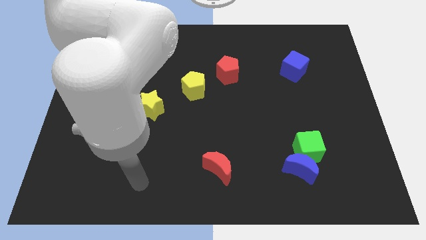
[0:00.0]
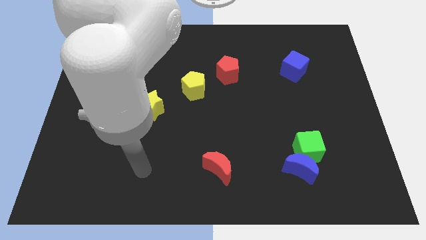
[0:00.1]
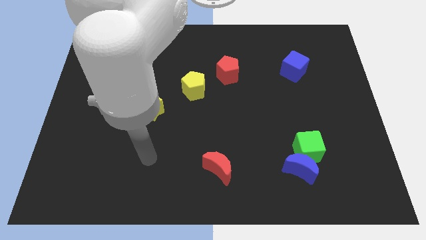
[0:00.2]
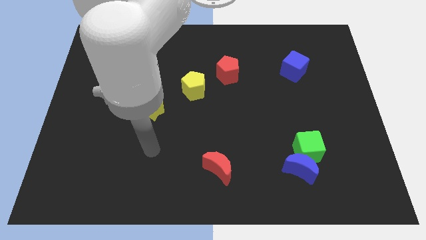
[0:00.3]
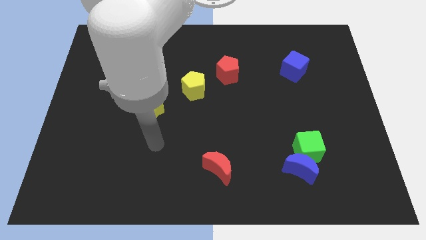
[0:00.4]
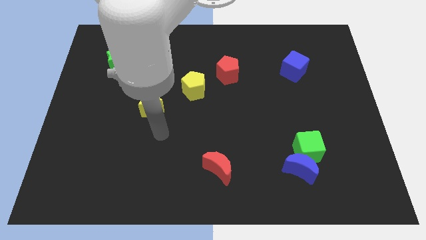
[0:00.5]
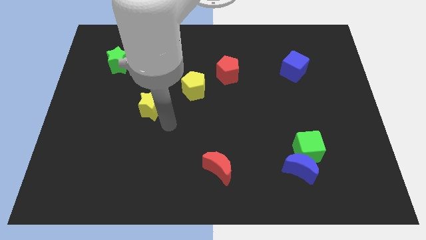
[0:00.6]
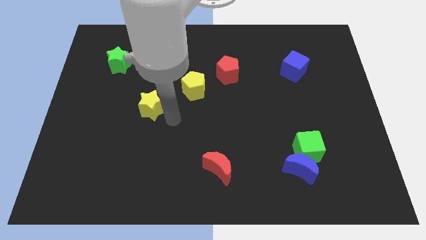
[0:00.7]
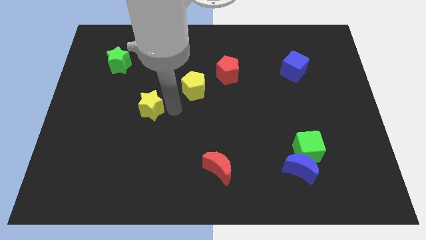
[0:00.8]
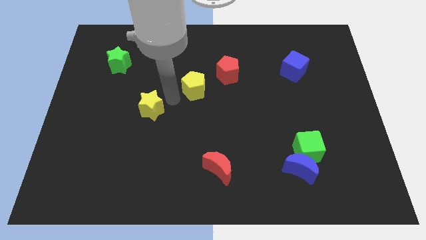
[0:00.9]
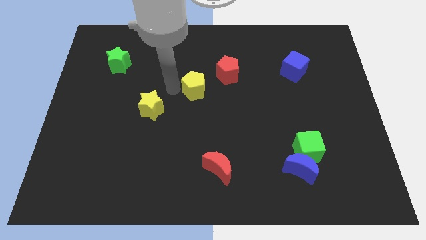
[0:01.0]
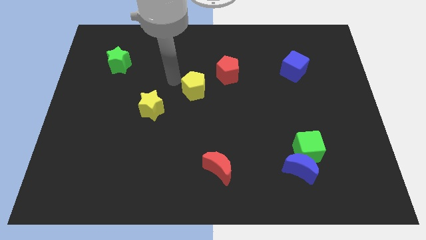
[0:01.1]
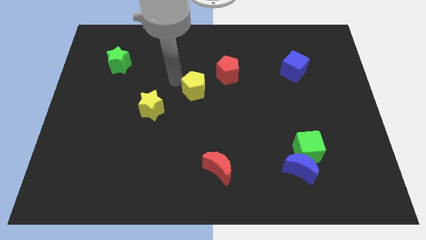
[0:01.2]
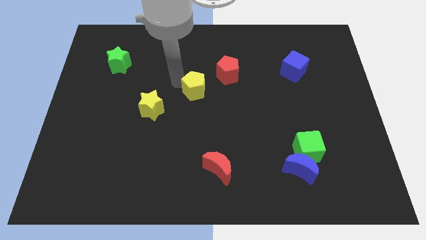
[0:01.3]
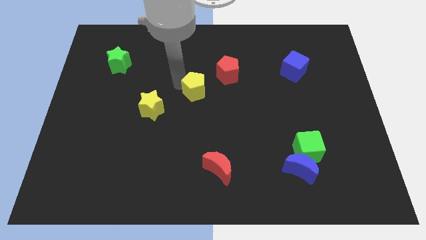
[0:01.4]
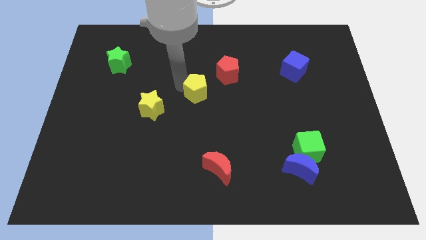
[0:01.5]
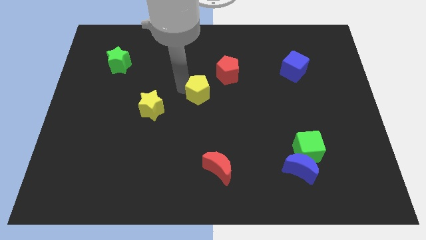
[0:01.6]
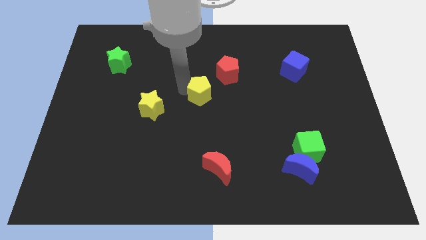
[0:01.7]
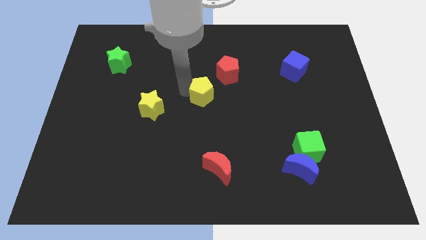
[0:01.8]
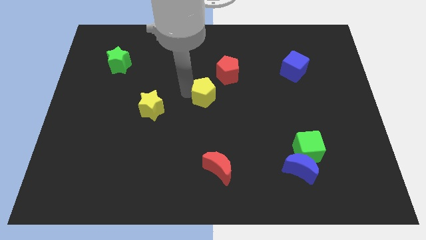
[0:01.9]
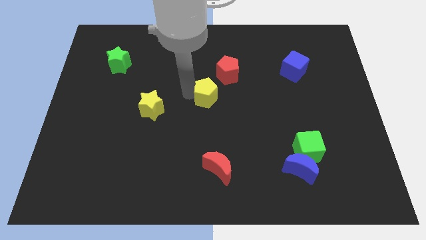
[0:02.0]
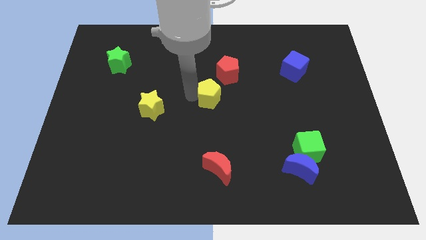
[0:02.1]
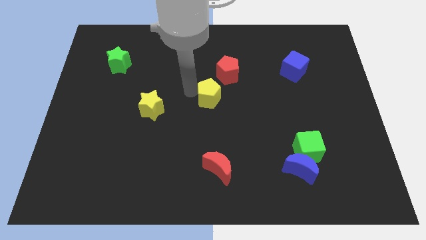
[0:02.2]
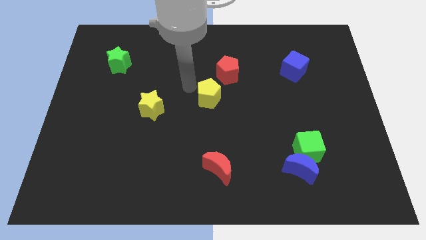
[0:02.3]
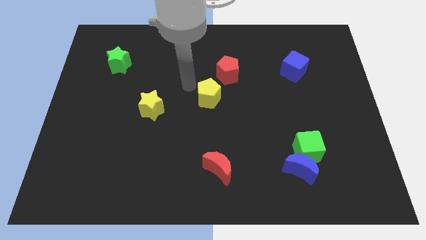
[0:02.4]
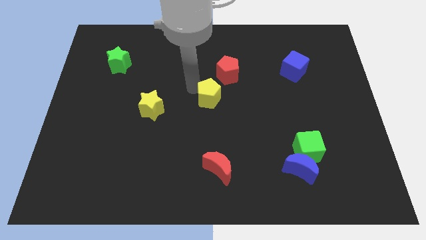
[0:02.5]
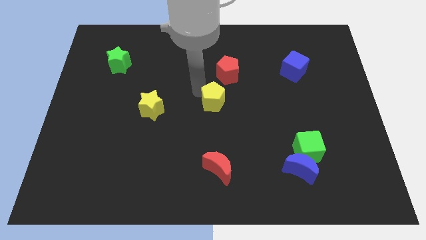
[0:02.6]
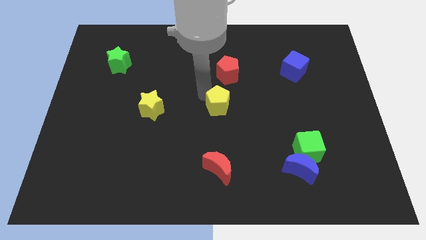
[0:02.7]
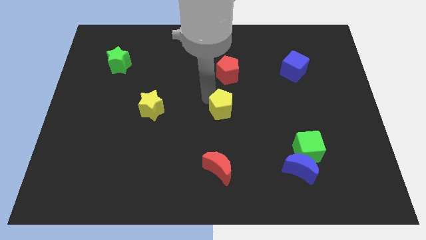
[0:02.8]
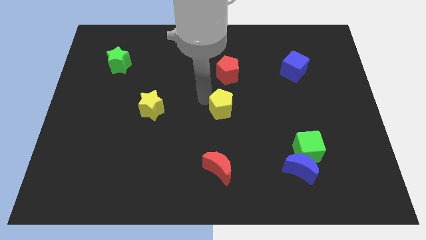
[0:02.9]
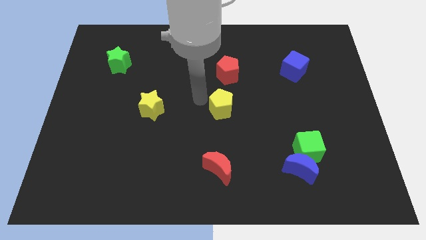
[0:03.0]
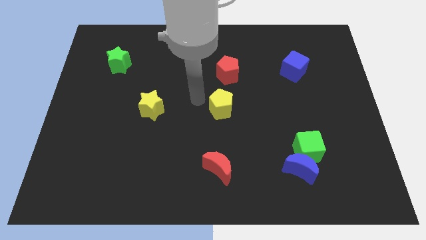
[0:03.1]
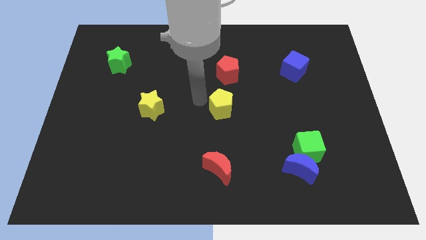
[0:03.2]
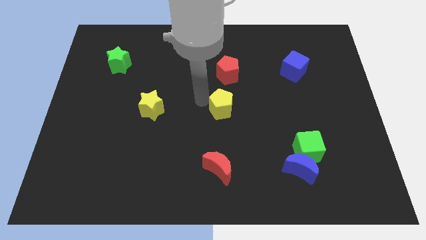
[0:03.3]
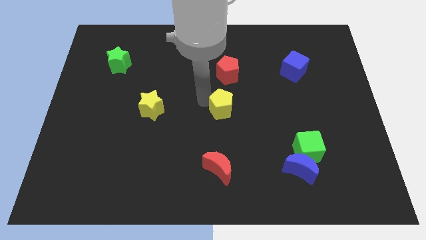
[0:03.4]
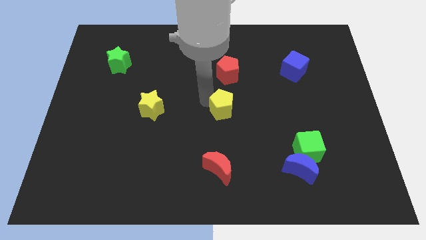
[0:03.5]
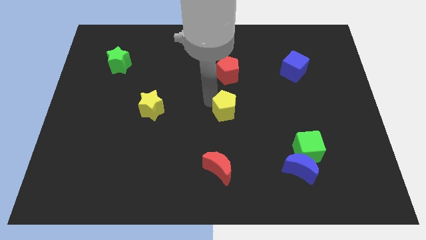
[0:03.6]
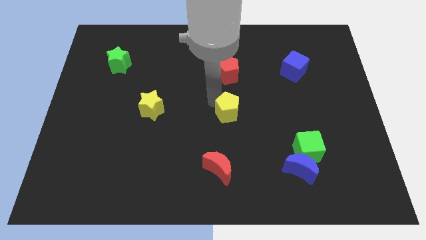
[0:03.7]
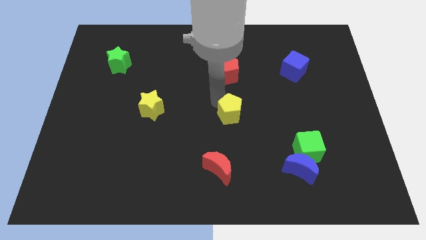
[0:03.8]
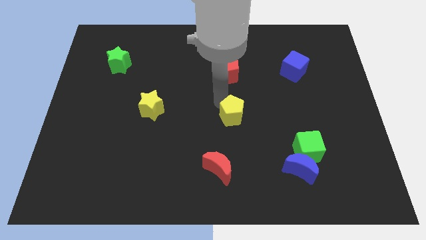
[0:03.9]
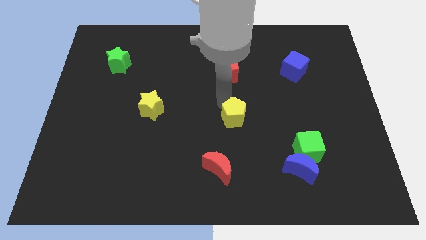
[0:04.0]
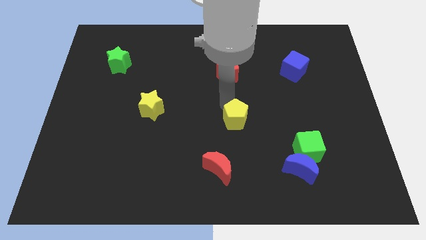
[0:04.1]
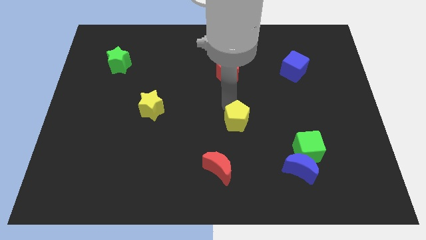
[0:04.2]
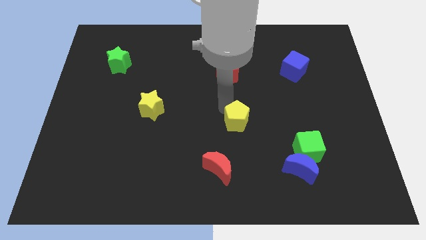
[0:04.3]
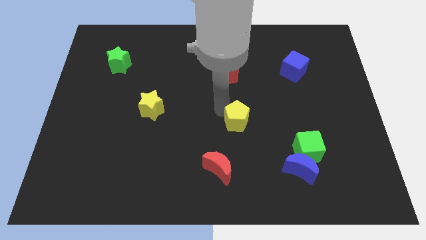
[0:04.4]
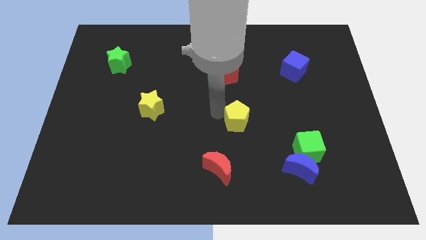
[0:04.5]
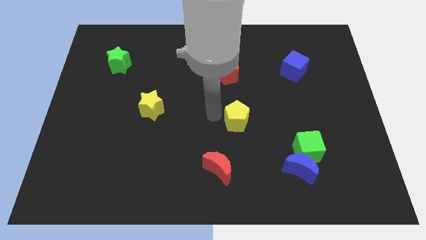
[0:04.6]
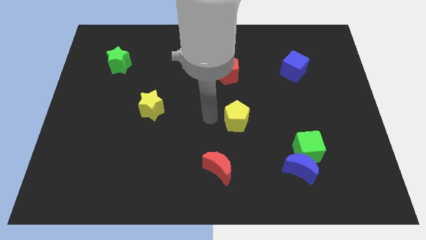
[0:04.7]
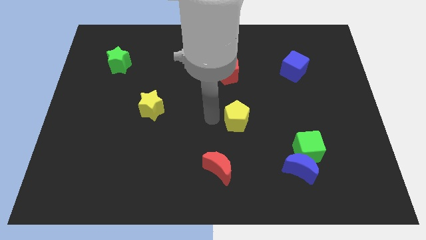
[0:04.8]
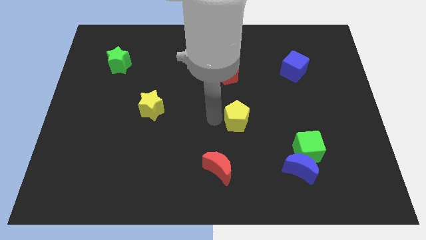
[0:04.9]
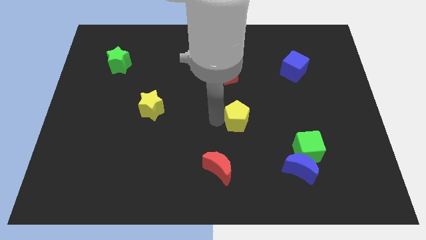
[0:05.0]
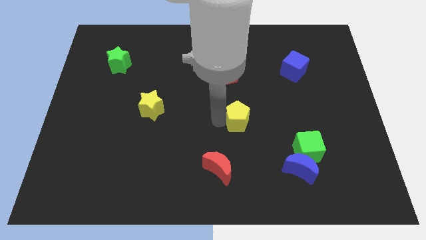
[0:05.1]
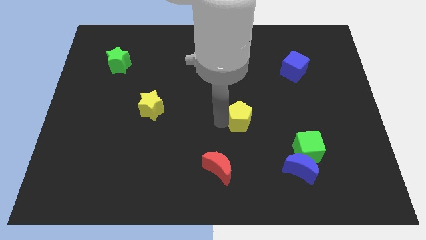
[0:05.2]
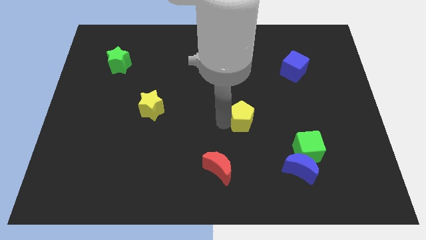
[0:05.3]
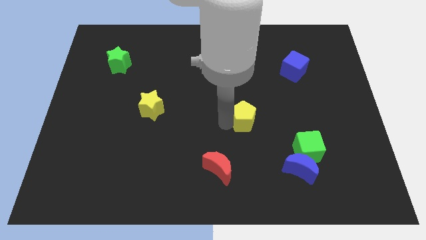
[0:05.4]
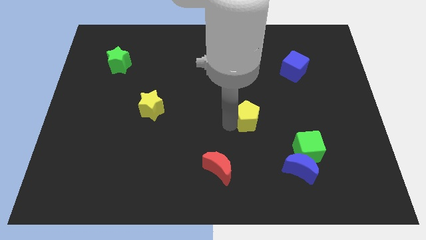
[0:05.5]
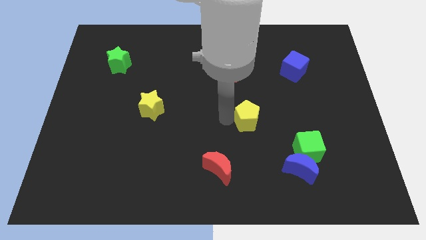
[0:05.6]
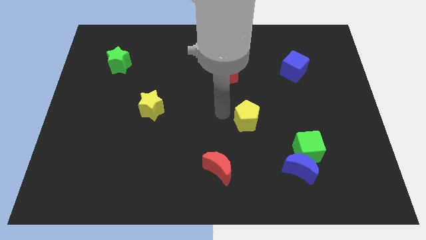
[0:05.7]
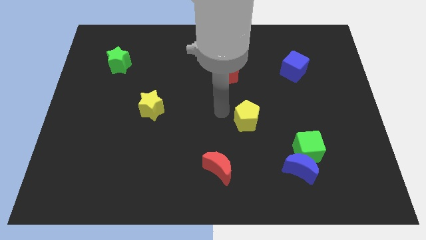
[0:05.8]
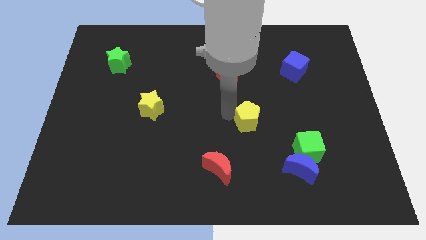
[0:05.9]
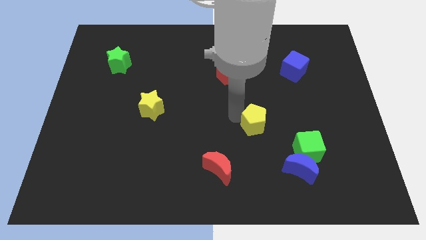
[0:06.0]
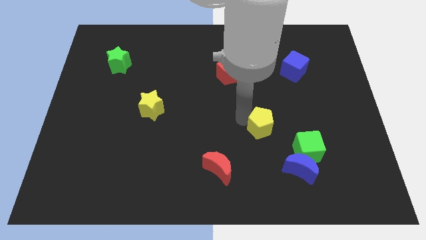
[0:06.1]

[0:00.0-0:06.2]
move the yellow pentagon diagonally up and to the left of the green cube
